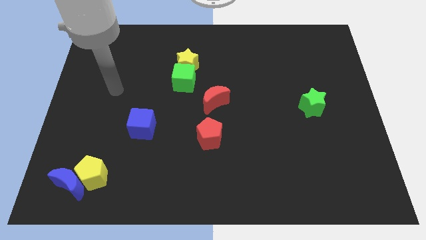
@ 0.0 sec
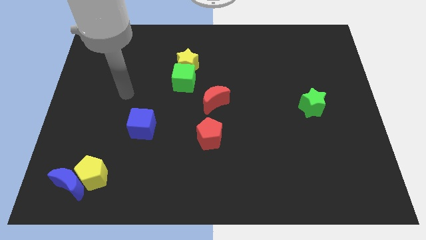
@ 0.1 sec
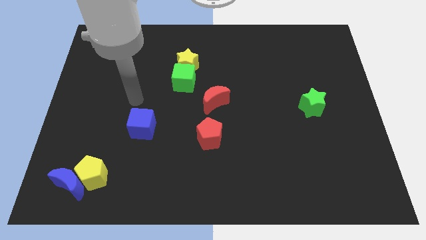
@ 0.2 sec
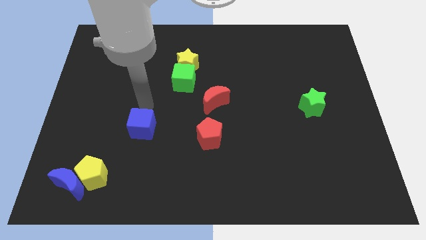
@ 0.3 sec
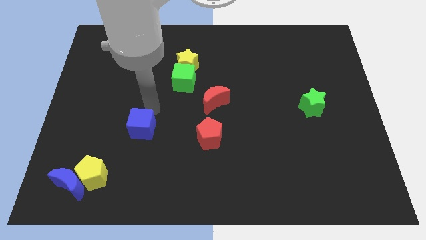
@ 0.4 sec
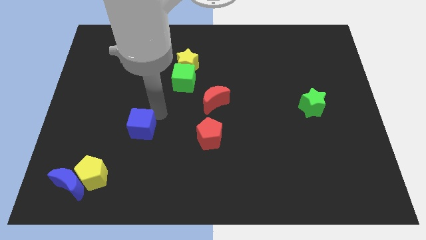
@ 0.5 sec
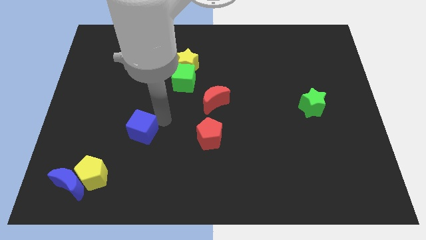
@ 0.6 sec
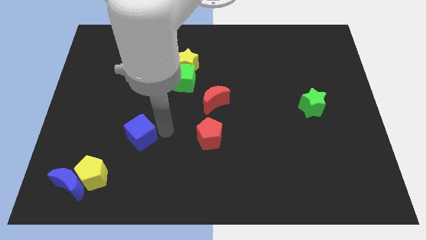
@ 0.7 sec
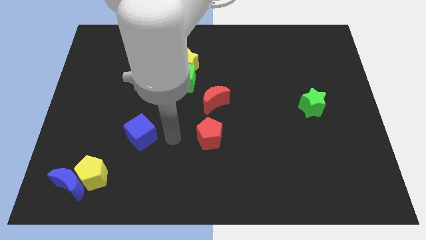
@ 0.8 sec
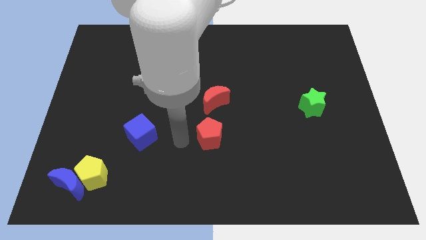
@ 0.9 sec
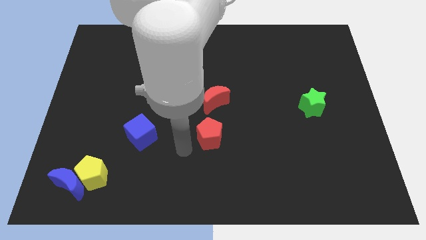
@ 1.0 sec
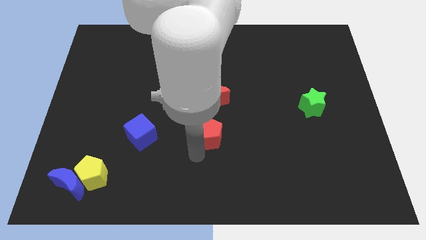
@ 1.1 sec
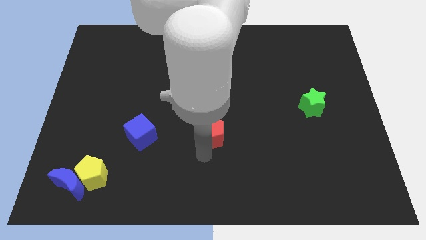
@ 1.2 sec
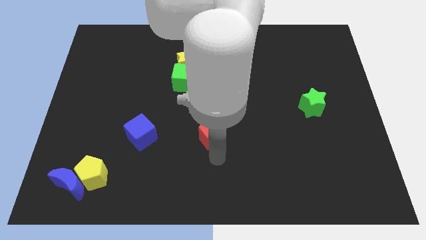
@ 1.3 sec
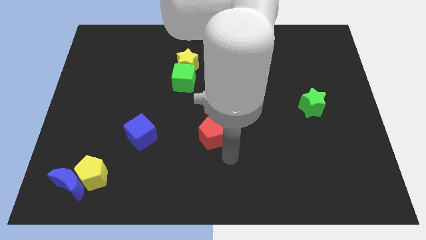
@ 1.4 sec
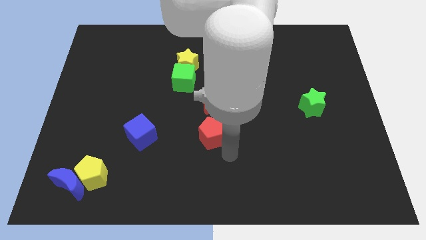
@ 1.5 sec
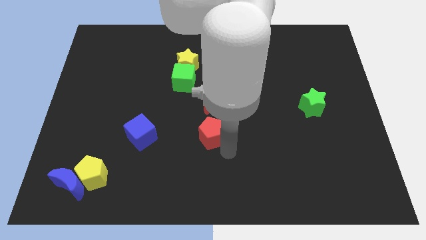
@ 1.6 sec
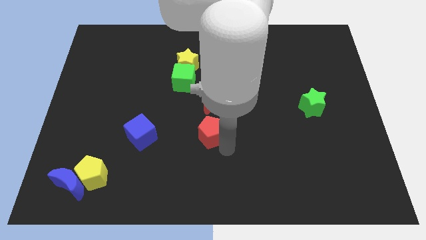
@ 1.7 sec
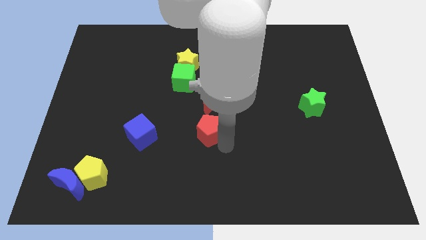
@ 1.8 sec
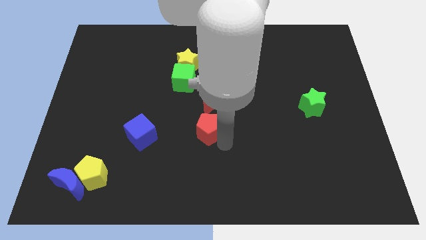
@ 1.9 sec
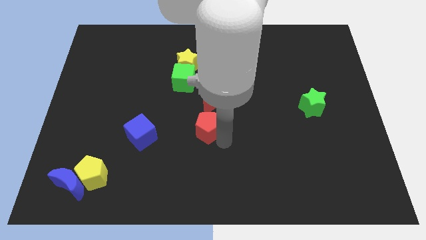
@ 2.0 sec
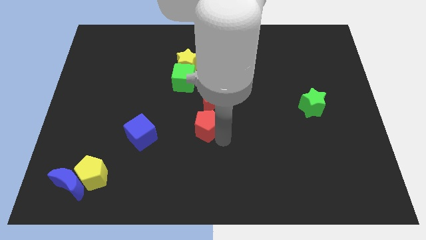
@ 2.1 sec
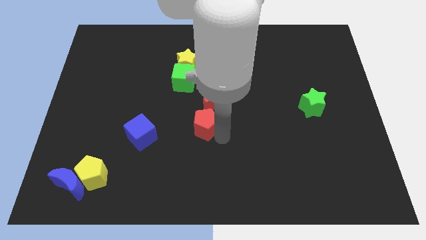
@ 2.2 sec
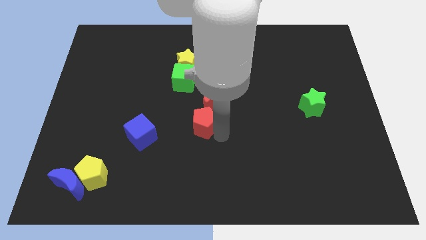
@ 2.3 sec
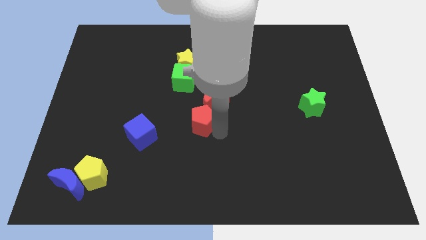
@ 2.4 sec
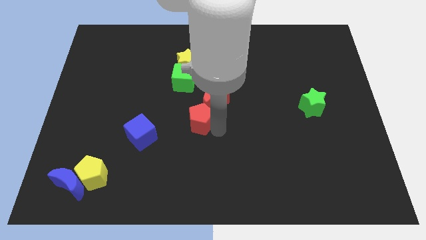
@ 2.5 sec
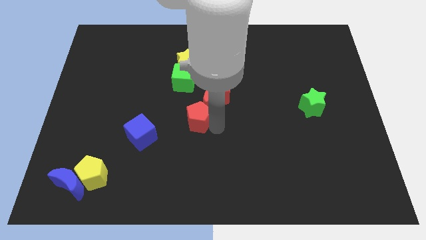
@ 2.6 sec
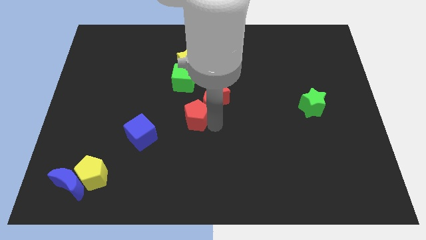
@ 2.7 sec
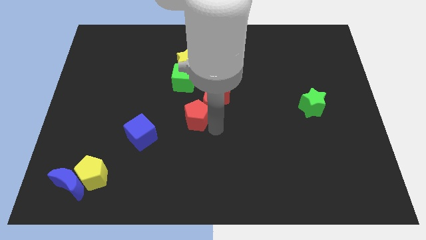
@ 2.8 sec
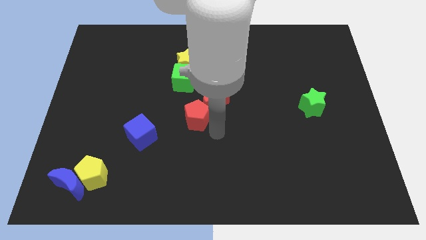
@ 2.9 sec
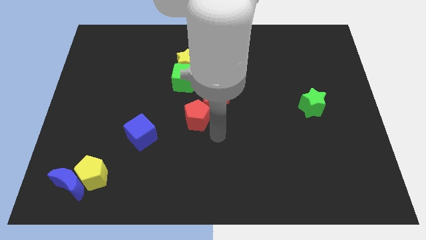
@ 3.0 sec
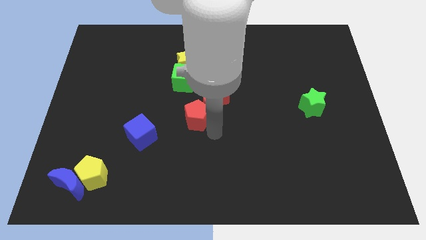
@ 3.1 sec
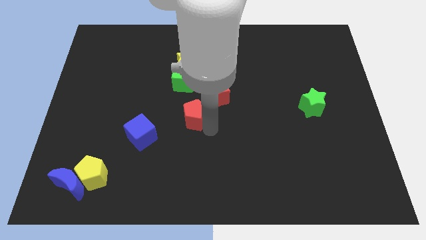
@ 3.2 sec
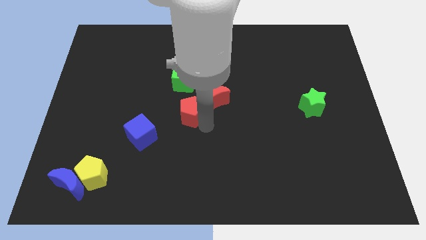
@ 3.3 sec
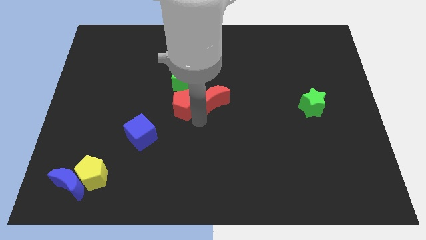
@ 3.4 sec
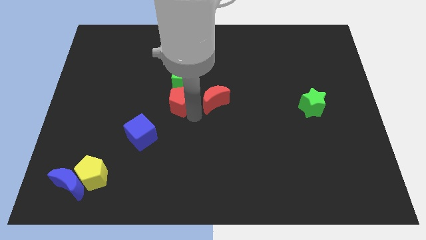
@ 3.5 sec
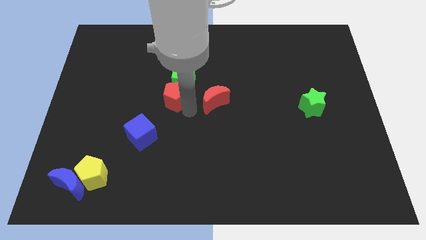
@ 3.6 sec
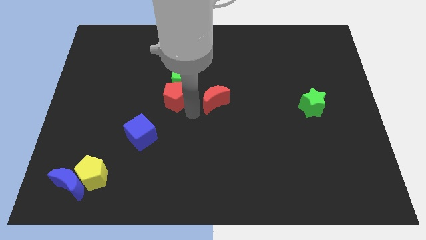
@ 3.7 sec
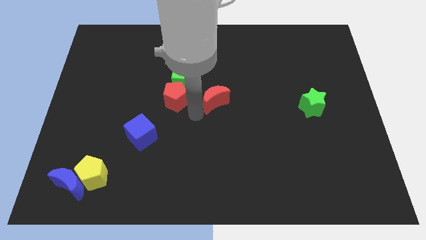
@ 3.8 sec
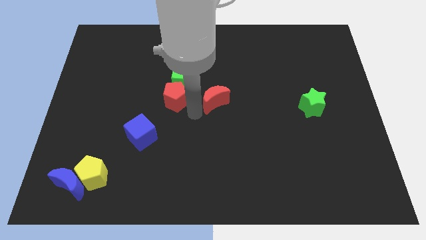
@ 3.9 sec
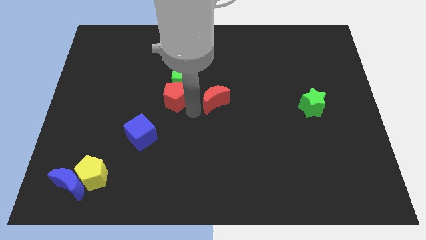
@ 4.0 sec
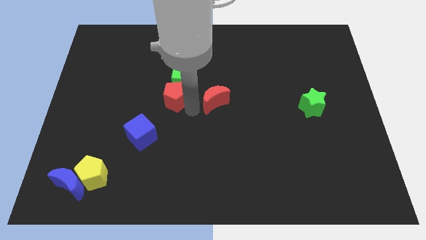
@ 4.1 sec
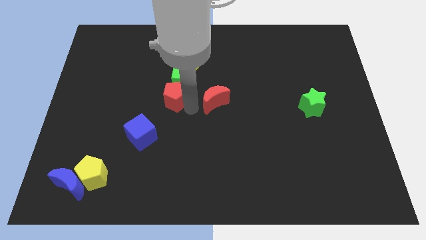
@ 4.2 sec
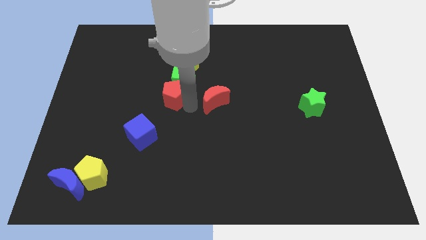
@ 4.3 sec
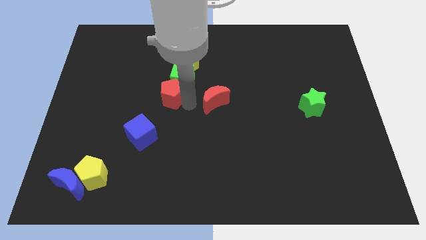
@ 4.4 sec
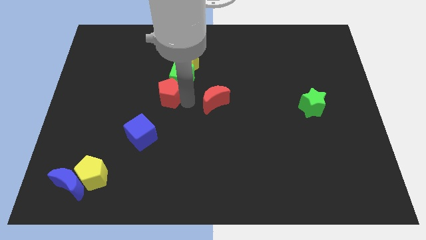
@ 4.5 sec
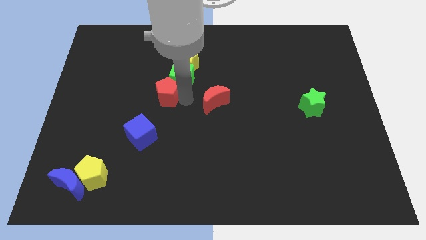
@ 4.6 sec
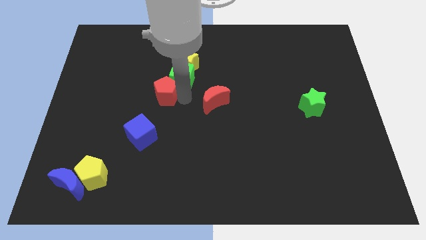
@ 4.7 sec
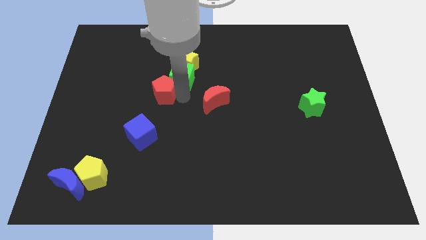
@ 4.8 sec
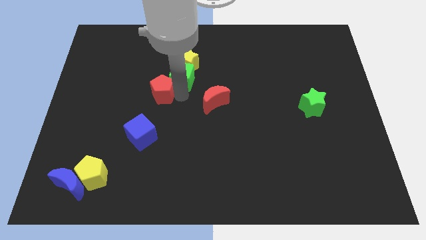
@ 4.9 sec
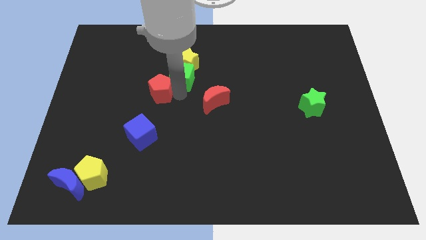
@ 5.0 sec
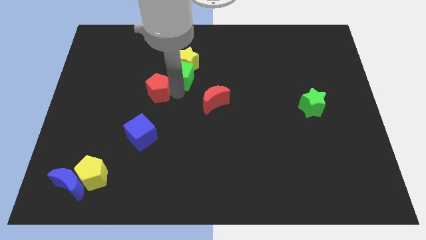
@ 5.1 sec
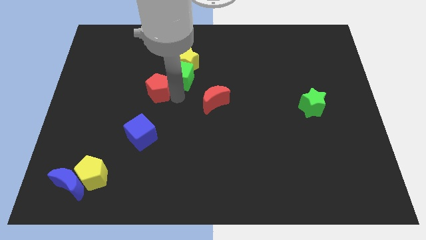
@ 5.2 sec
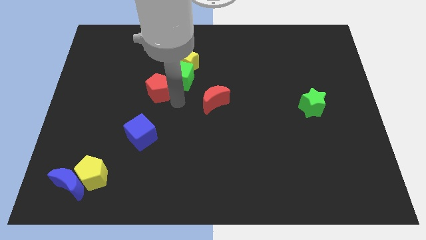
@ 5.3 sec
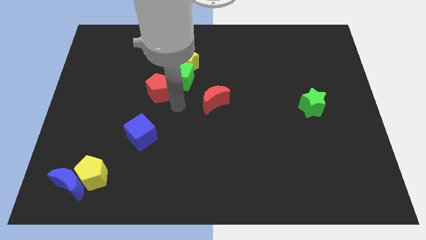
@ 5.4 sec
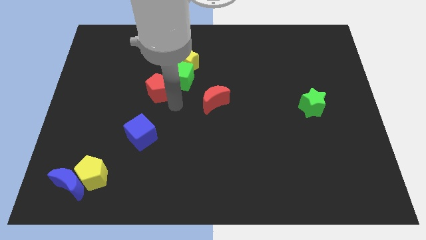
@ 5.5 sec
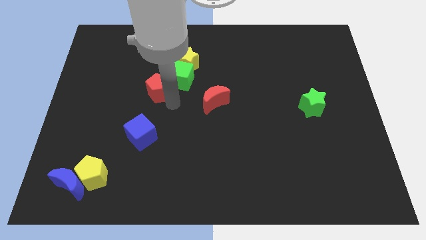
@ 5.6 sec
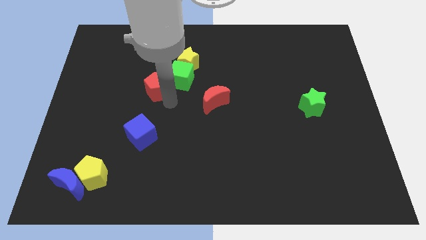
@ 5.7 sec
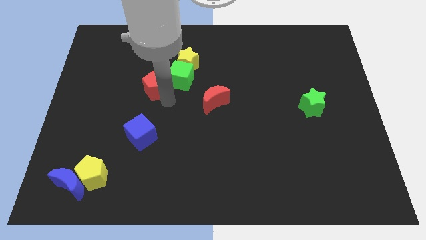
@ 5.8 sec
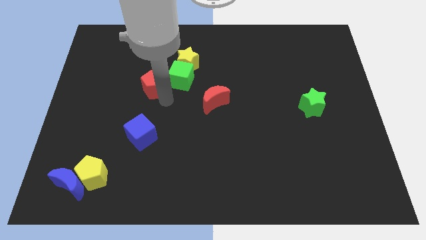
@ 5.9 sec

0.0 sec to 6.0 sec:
slide the red pentagon diagonally upwards and to the left

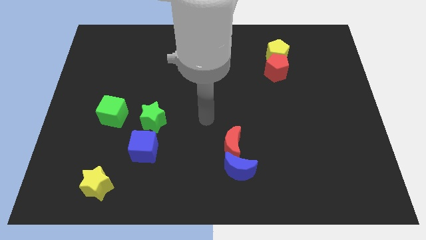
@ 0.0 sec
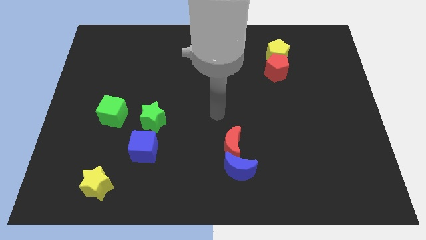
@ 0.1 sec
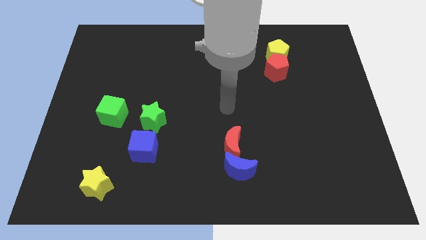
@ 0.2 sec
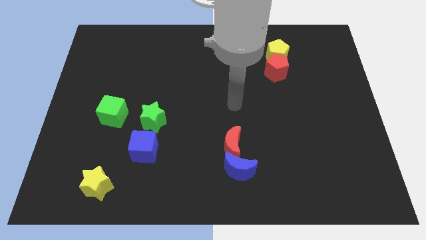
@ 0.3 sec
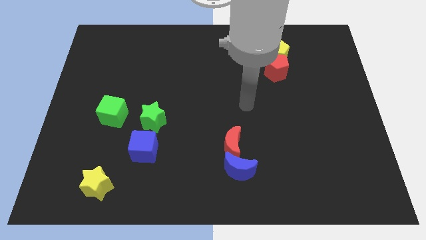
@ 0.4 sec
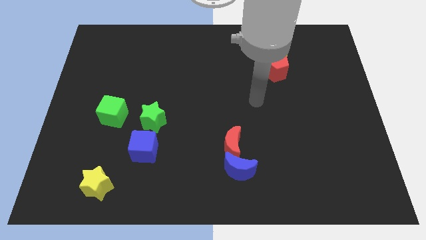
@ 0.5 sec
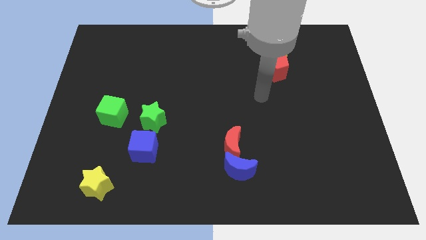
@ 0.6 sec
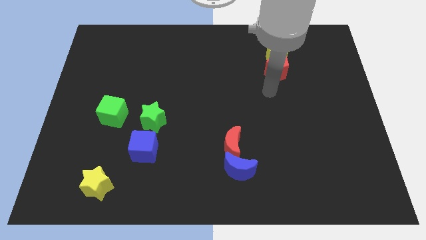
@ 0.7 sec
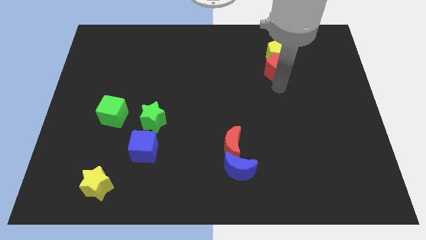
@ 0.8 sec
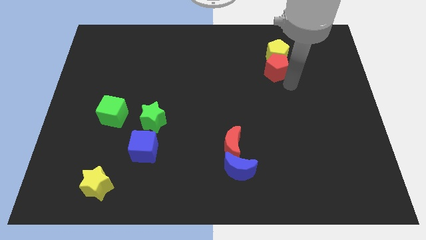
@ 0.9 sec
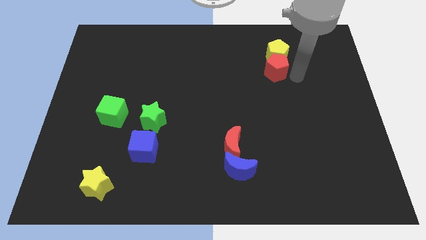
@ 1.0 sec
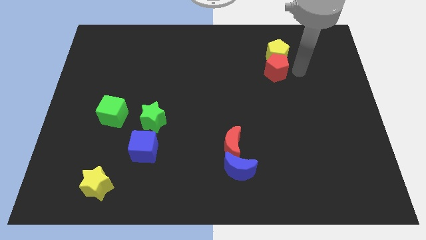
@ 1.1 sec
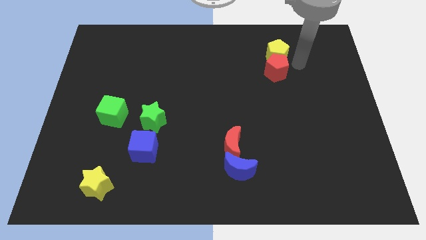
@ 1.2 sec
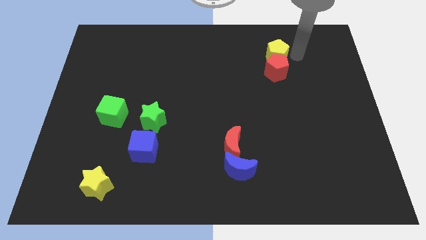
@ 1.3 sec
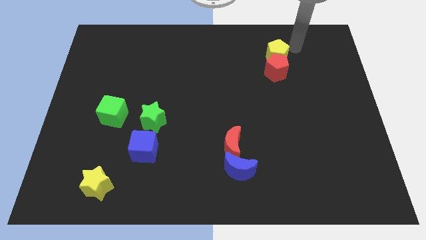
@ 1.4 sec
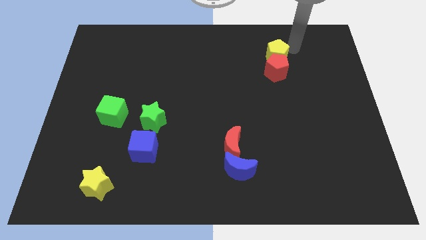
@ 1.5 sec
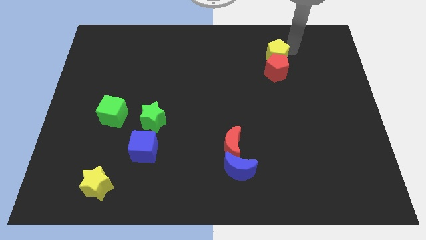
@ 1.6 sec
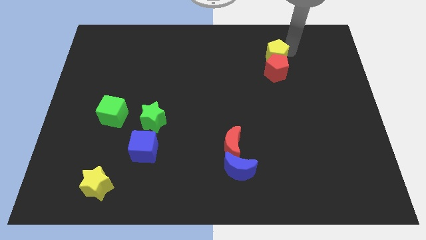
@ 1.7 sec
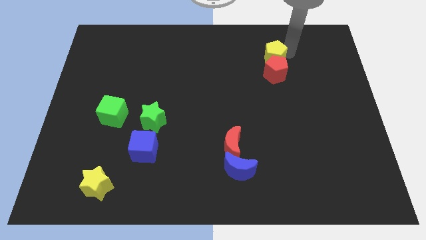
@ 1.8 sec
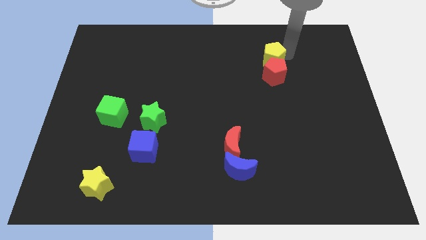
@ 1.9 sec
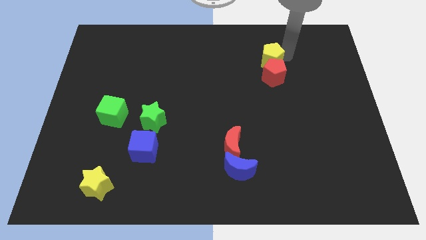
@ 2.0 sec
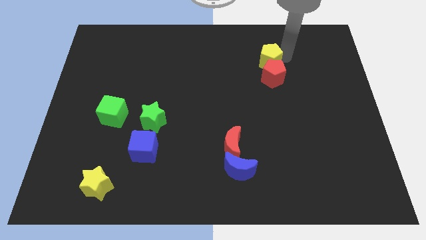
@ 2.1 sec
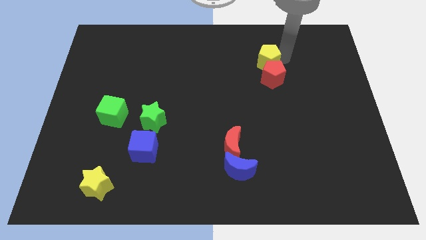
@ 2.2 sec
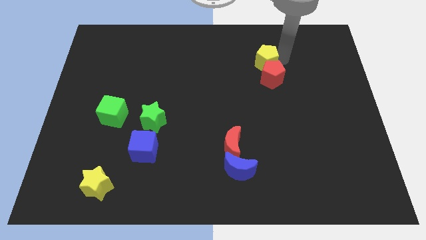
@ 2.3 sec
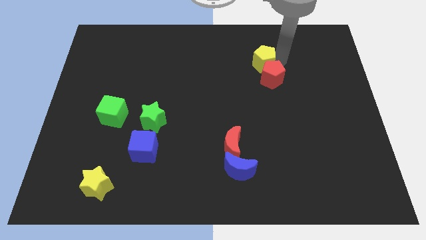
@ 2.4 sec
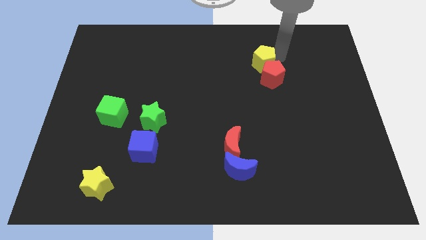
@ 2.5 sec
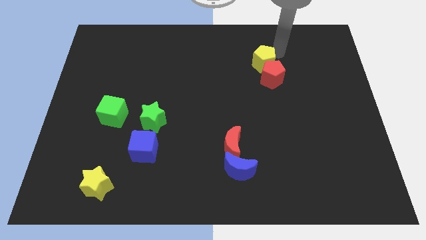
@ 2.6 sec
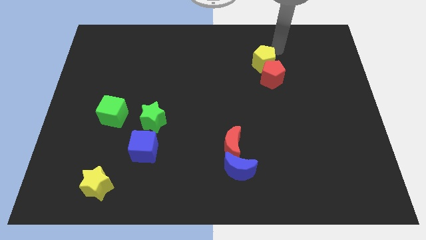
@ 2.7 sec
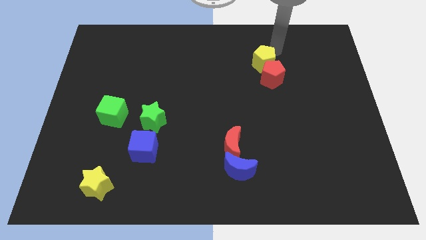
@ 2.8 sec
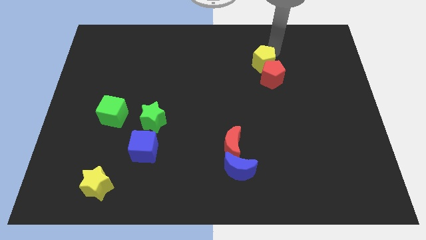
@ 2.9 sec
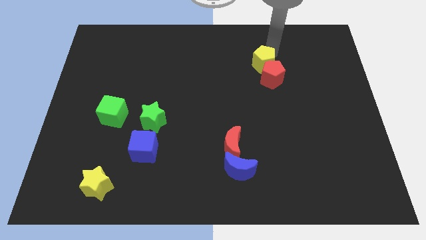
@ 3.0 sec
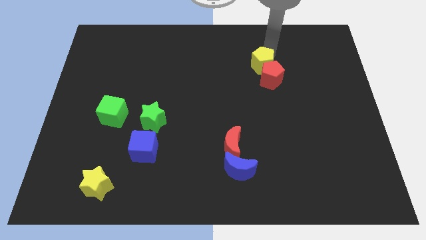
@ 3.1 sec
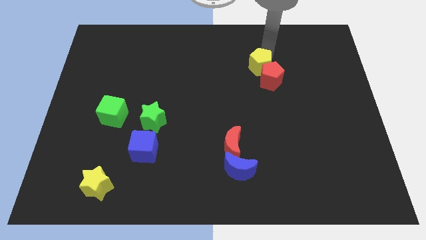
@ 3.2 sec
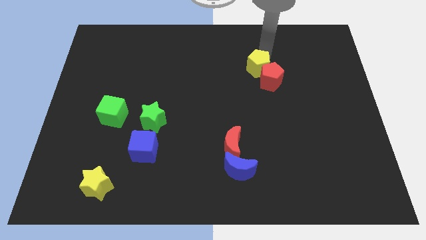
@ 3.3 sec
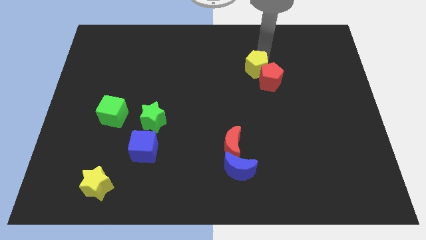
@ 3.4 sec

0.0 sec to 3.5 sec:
slightly slide the yellow pentagon diagonally down and left
